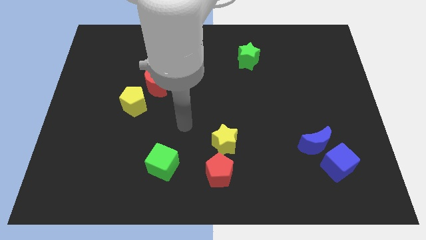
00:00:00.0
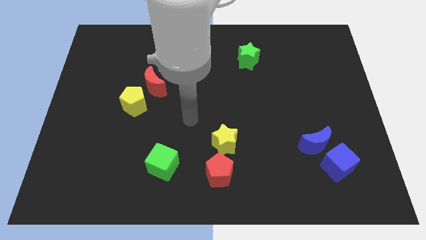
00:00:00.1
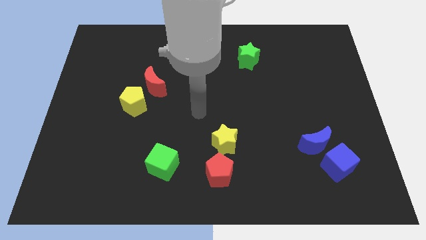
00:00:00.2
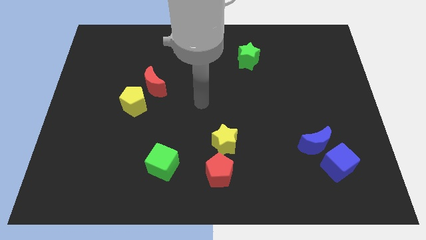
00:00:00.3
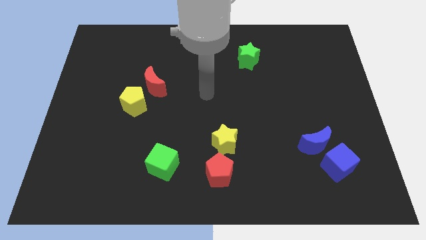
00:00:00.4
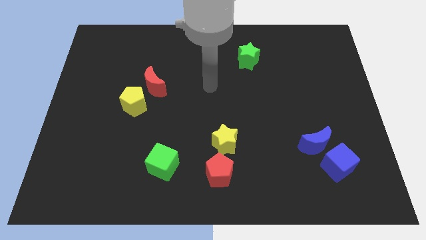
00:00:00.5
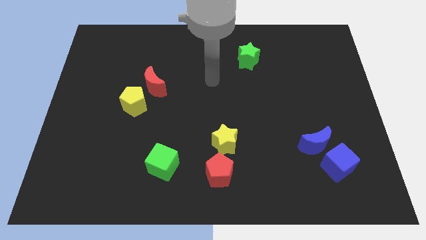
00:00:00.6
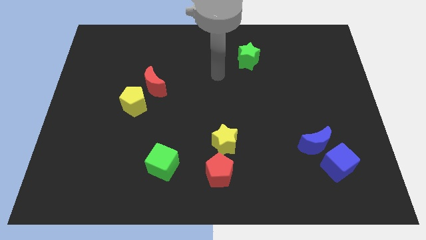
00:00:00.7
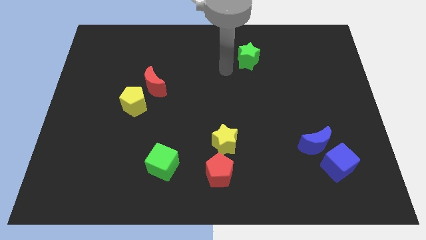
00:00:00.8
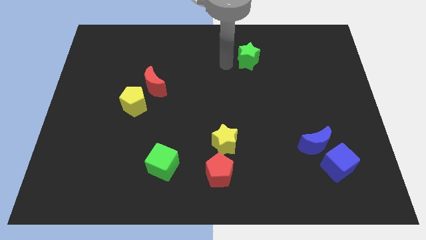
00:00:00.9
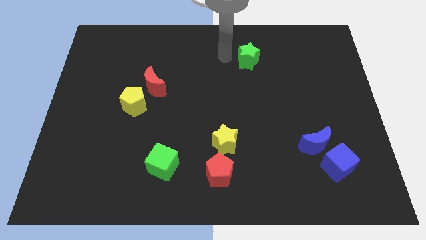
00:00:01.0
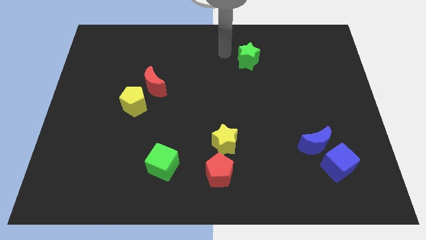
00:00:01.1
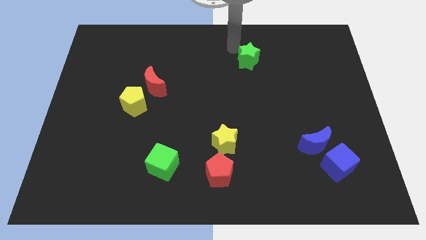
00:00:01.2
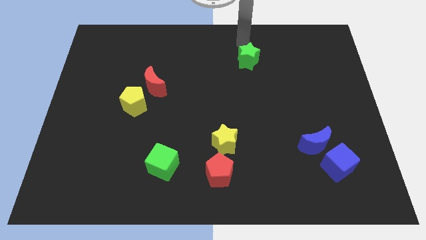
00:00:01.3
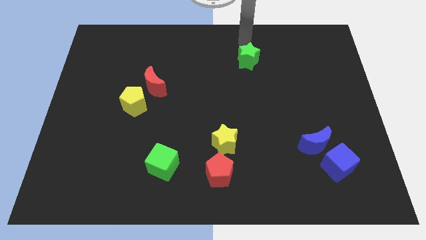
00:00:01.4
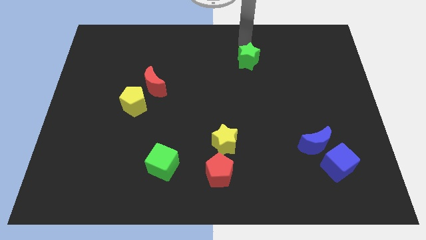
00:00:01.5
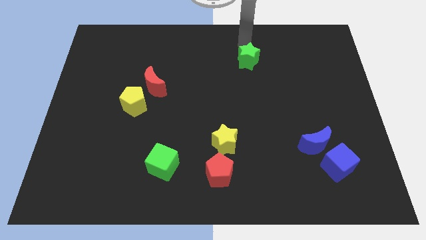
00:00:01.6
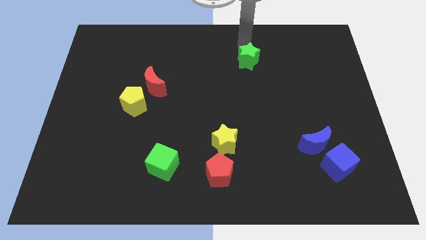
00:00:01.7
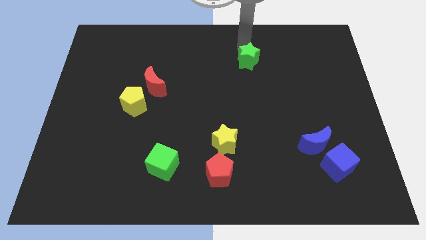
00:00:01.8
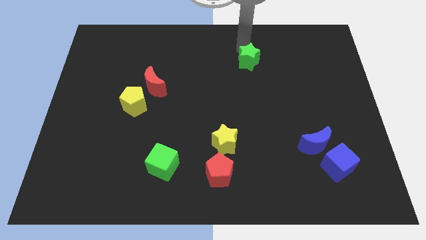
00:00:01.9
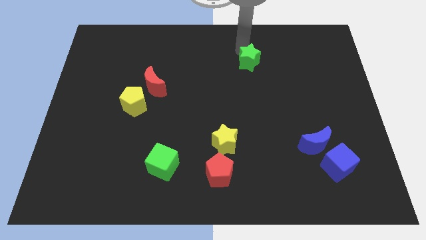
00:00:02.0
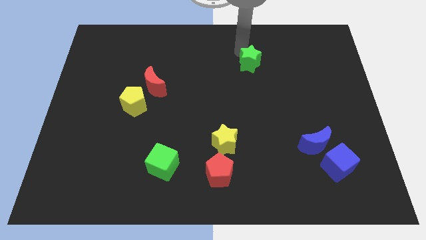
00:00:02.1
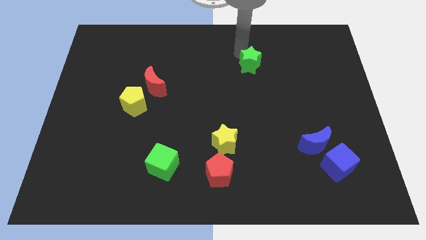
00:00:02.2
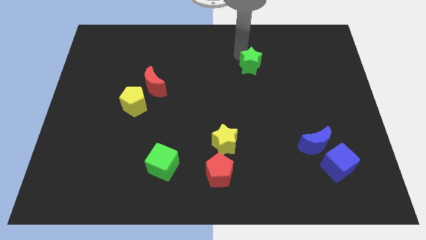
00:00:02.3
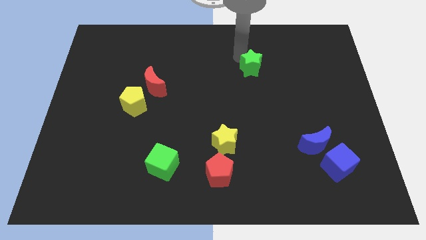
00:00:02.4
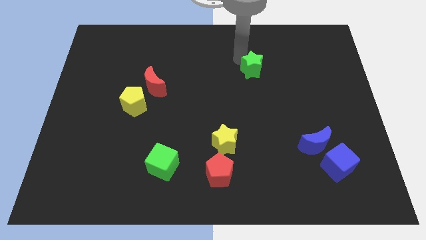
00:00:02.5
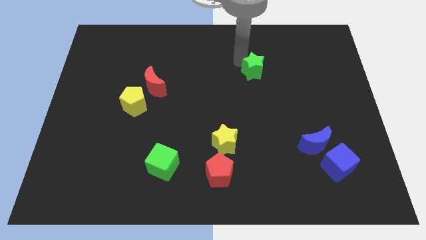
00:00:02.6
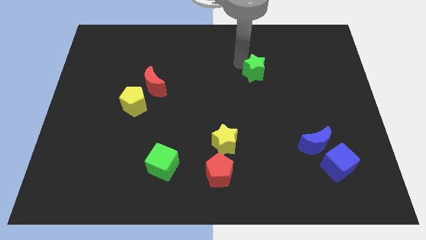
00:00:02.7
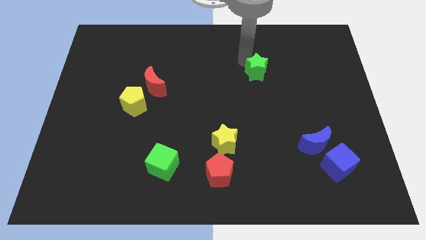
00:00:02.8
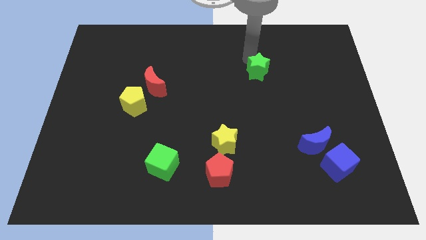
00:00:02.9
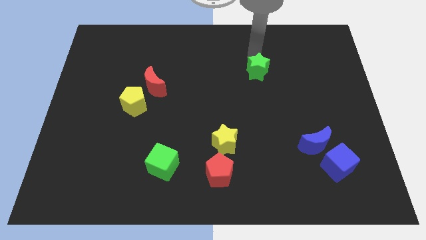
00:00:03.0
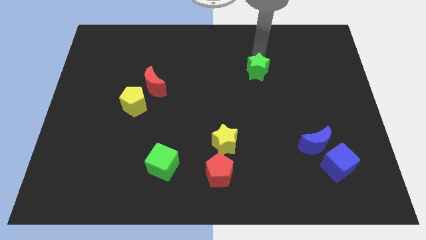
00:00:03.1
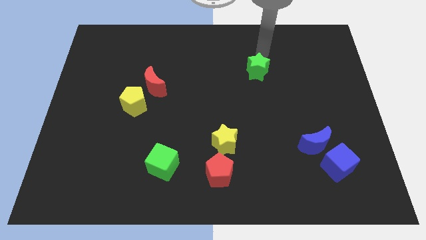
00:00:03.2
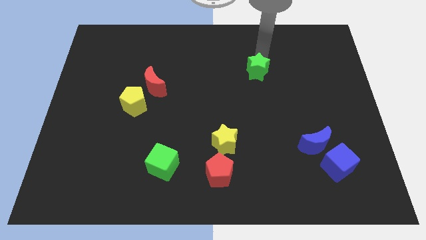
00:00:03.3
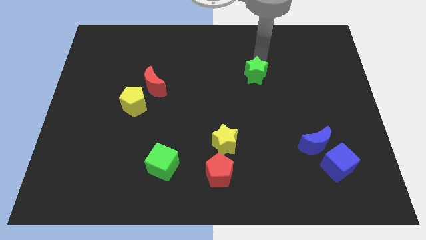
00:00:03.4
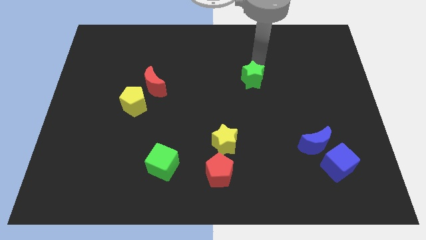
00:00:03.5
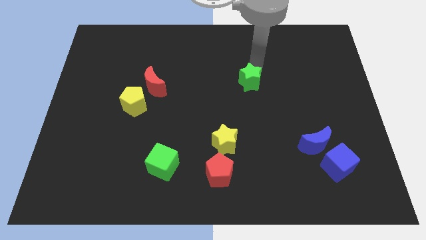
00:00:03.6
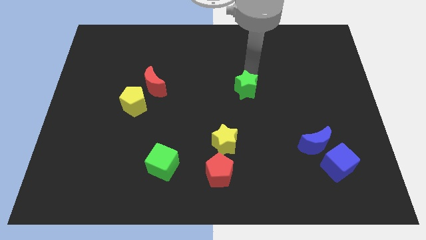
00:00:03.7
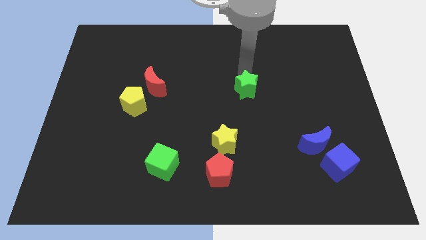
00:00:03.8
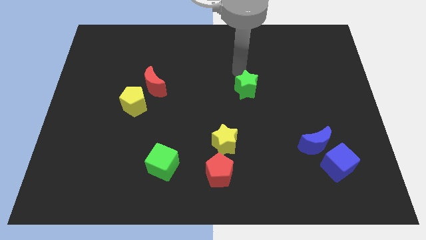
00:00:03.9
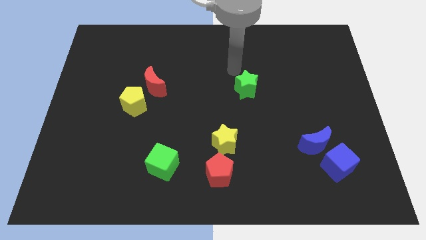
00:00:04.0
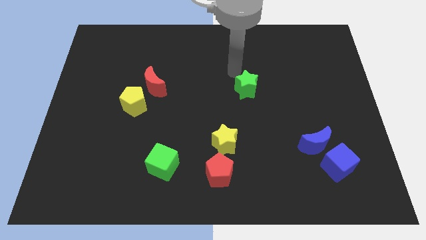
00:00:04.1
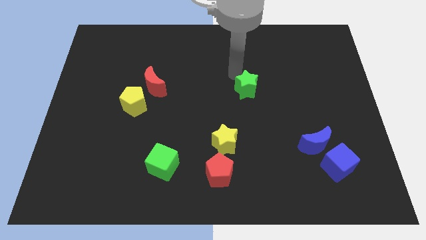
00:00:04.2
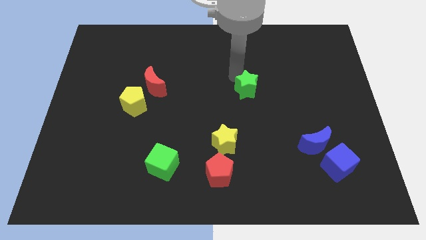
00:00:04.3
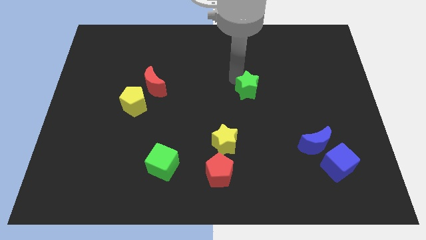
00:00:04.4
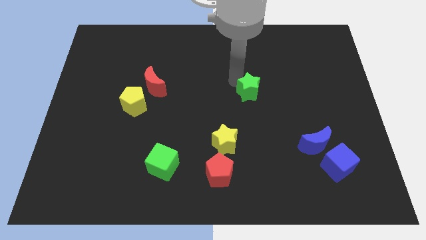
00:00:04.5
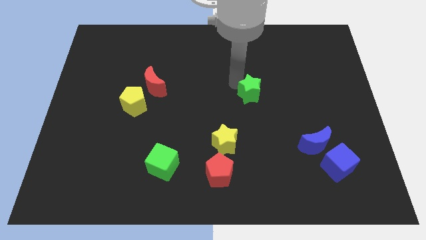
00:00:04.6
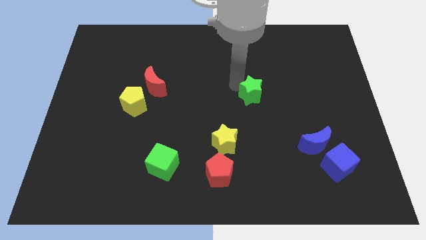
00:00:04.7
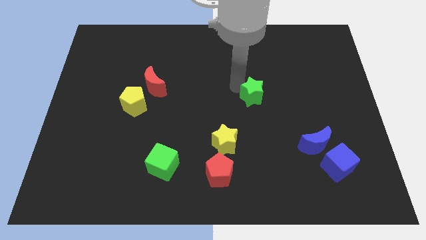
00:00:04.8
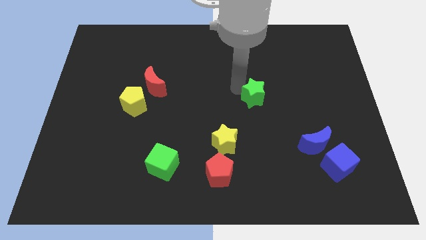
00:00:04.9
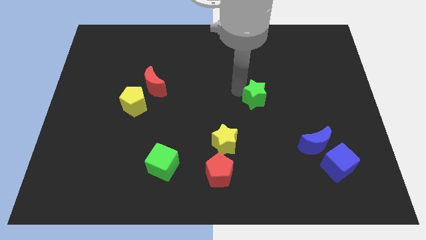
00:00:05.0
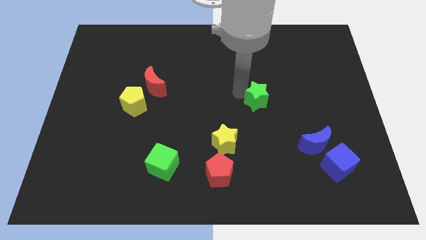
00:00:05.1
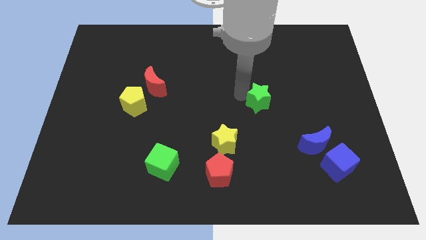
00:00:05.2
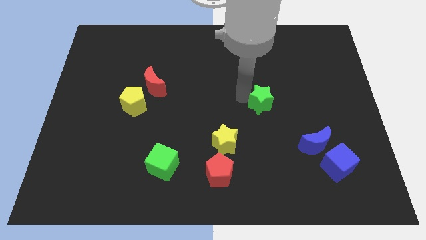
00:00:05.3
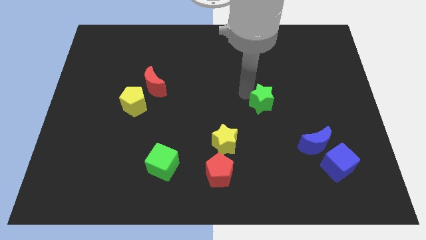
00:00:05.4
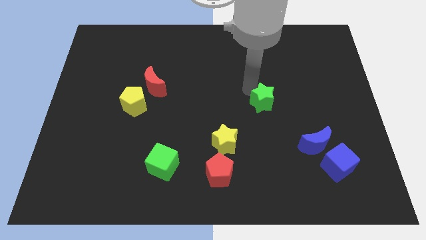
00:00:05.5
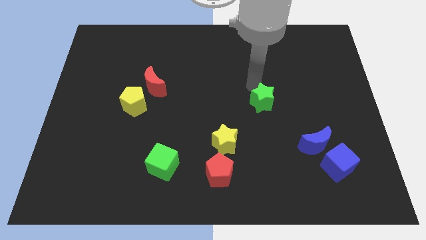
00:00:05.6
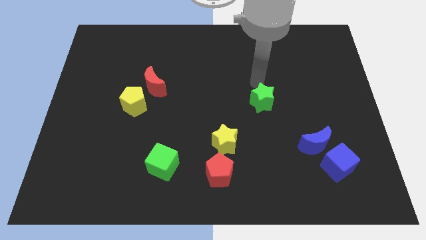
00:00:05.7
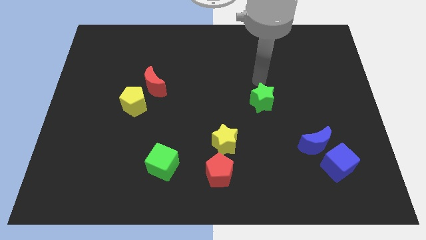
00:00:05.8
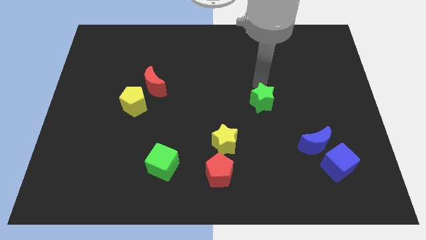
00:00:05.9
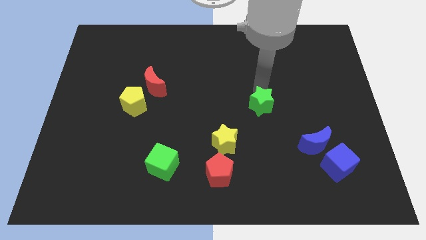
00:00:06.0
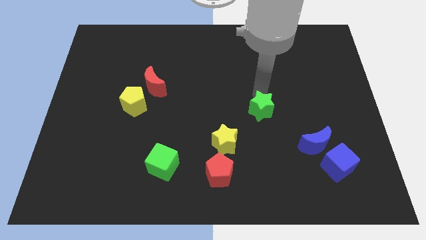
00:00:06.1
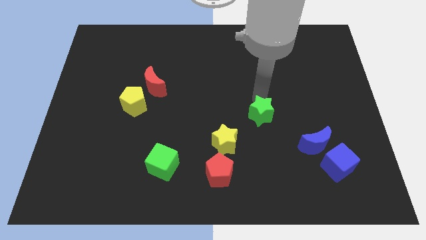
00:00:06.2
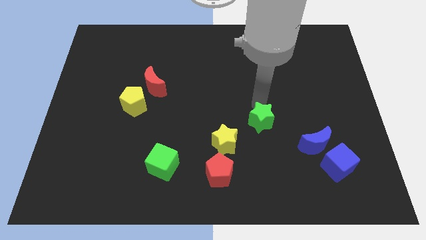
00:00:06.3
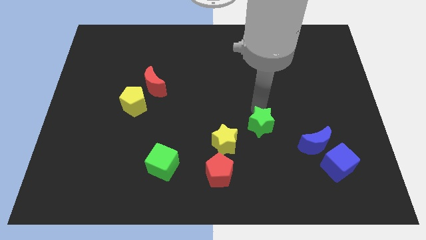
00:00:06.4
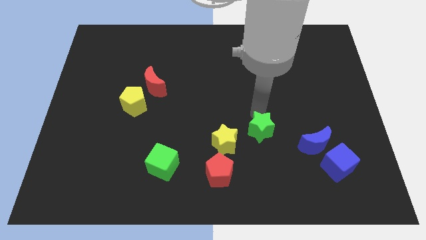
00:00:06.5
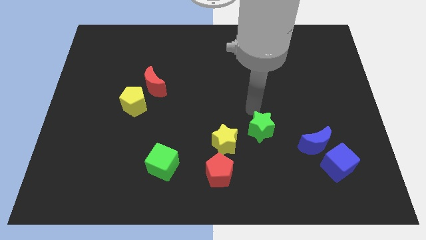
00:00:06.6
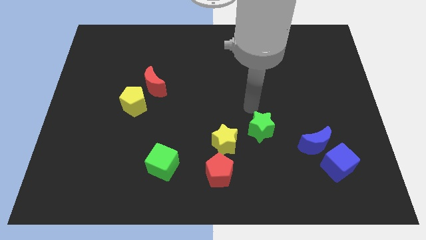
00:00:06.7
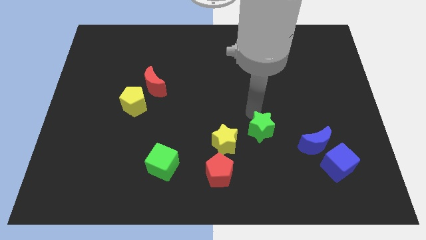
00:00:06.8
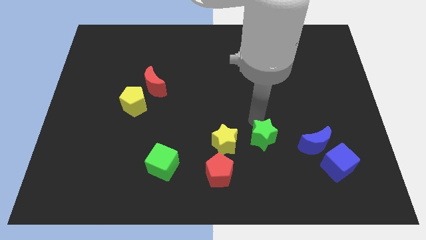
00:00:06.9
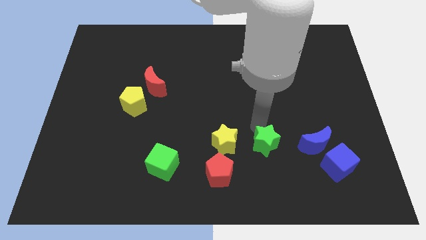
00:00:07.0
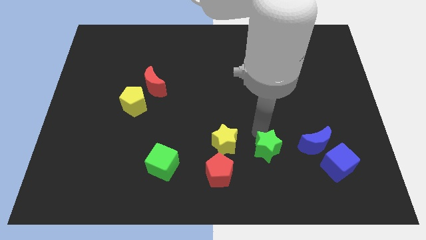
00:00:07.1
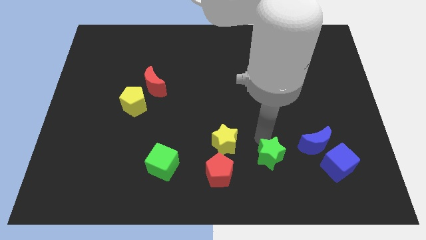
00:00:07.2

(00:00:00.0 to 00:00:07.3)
move the green star just right of the red pentagon
